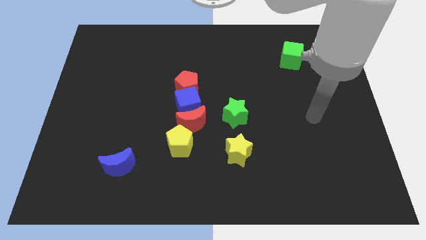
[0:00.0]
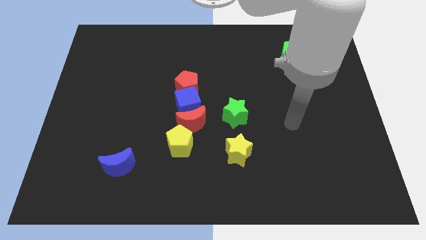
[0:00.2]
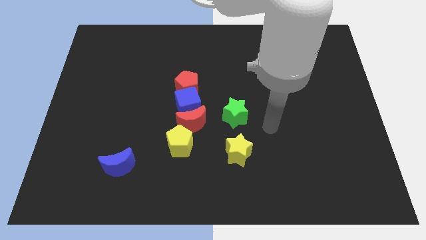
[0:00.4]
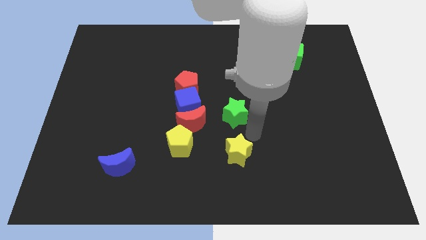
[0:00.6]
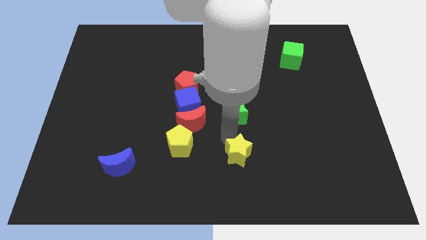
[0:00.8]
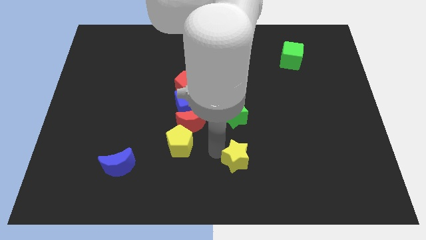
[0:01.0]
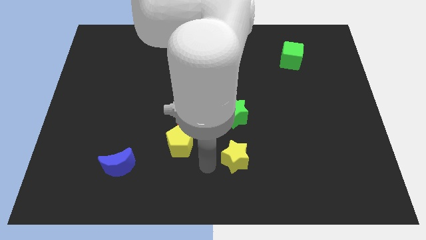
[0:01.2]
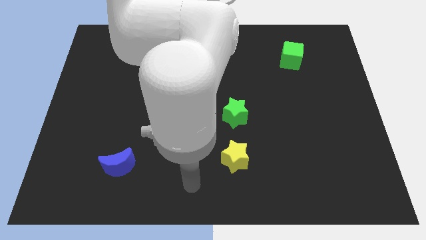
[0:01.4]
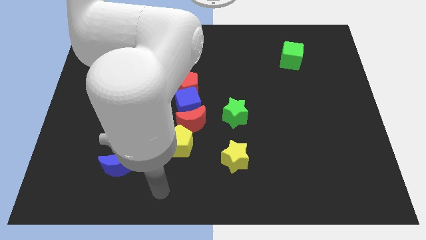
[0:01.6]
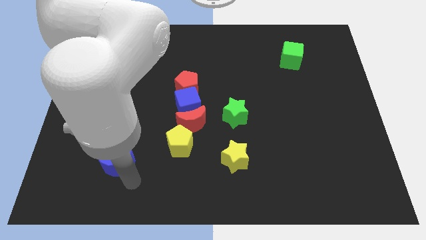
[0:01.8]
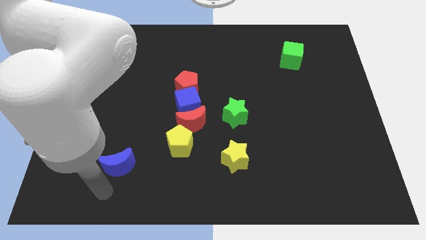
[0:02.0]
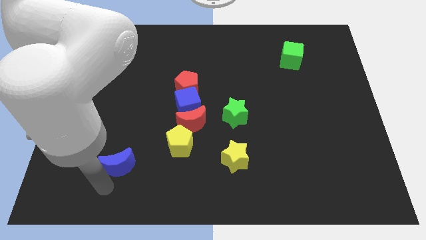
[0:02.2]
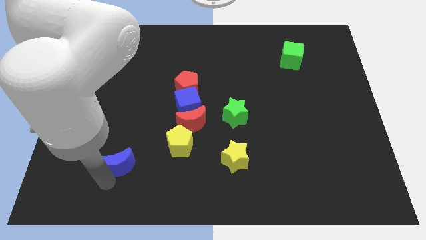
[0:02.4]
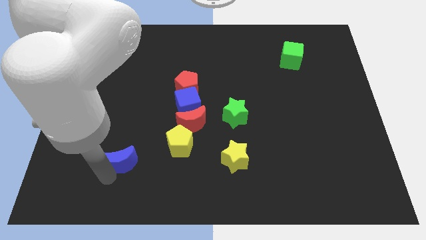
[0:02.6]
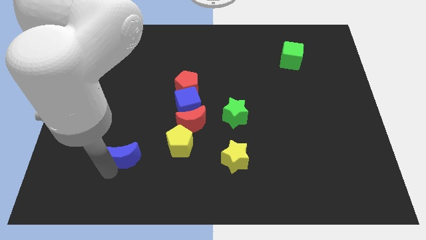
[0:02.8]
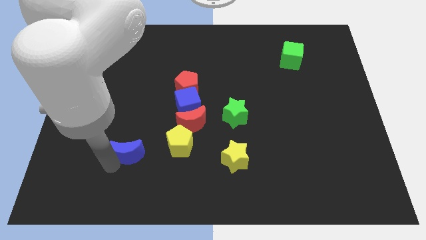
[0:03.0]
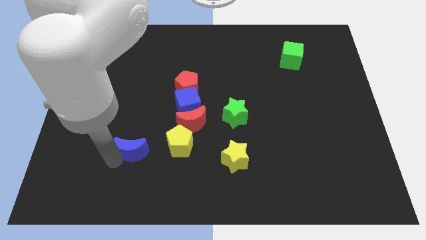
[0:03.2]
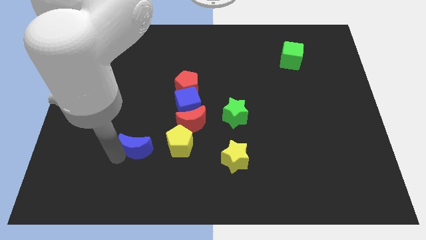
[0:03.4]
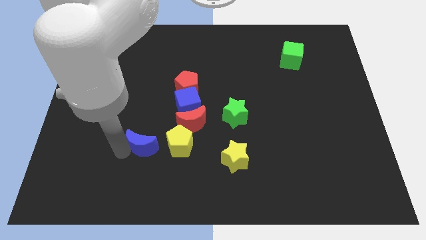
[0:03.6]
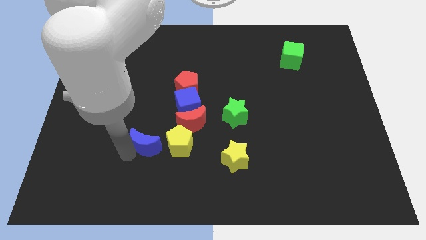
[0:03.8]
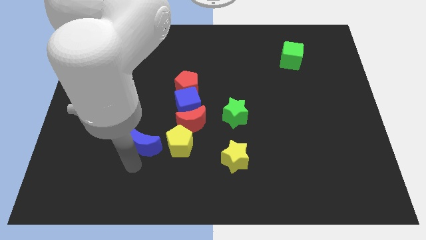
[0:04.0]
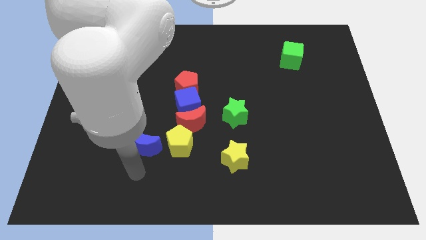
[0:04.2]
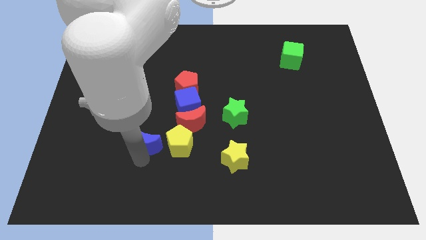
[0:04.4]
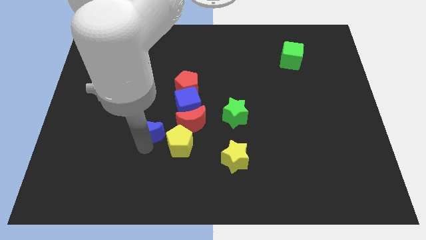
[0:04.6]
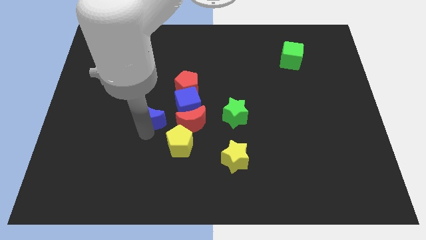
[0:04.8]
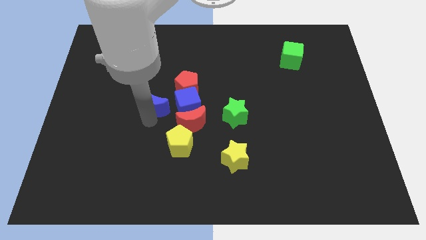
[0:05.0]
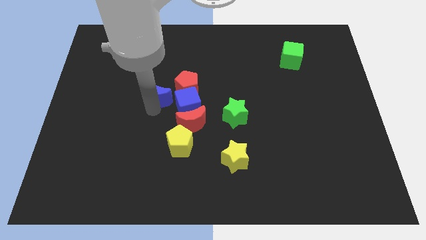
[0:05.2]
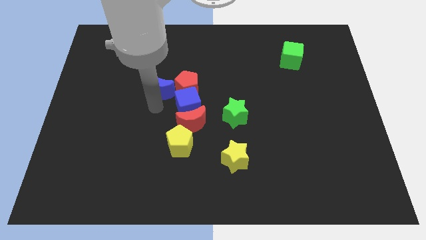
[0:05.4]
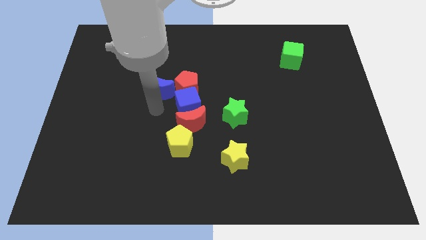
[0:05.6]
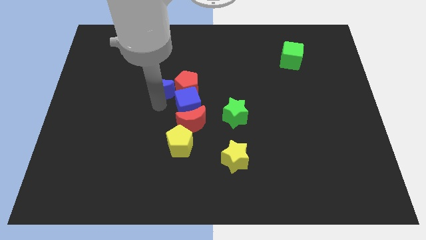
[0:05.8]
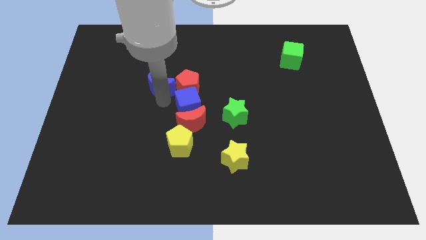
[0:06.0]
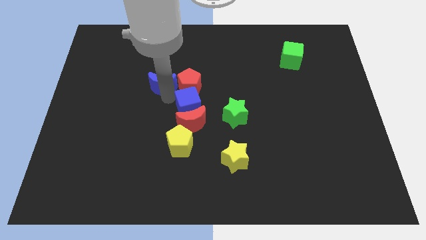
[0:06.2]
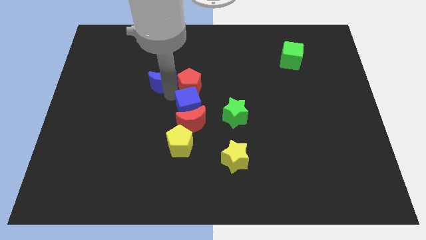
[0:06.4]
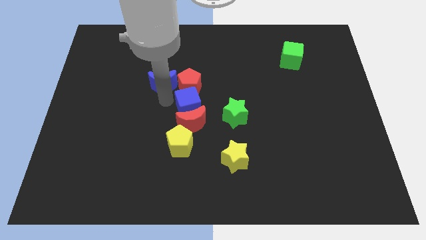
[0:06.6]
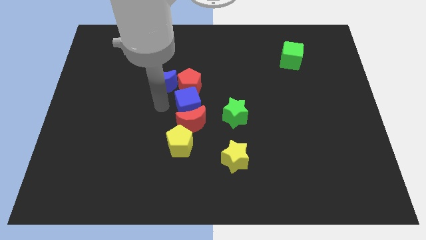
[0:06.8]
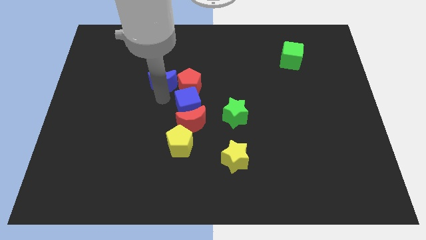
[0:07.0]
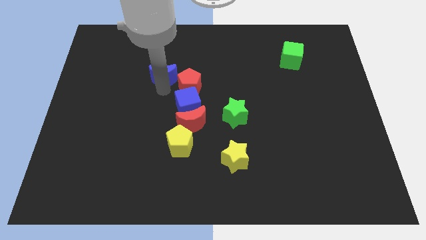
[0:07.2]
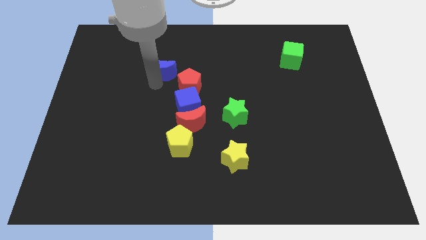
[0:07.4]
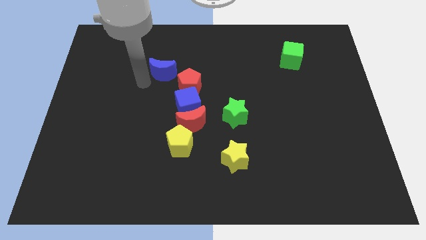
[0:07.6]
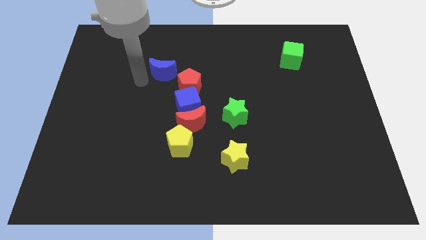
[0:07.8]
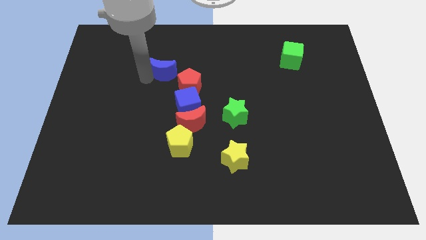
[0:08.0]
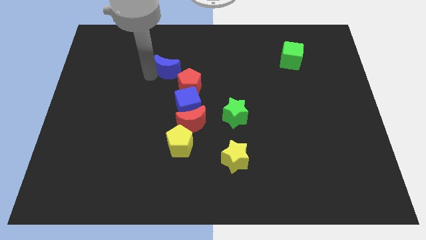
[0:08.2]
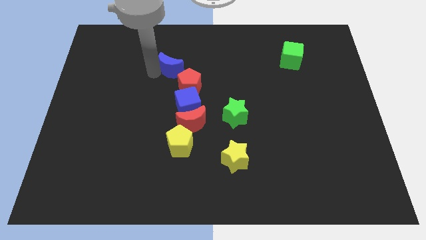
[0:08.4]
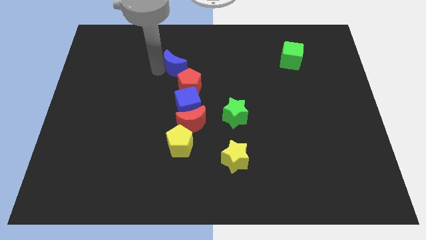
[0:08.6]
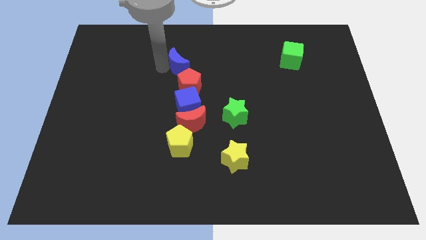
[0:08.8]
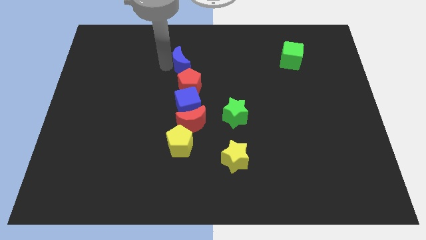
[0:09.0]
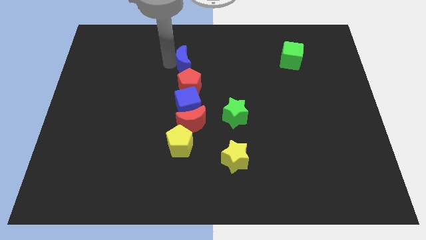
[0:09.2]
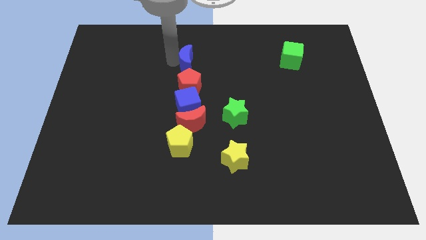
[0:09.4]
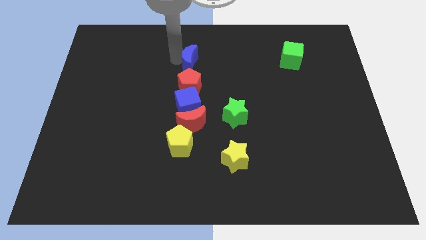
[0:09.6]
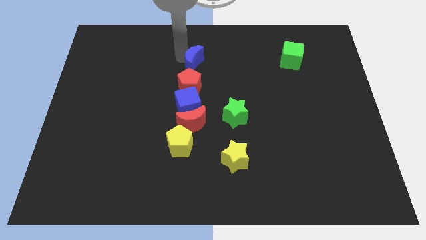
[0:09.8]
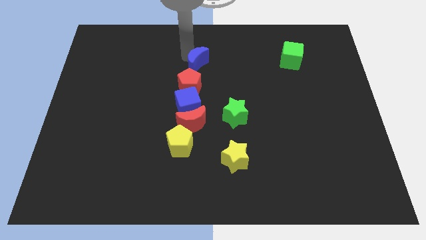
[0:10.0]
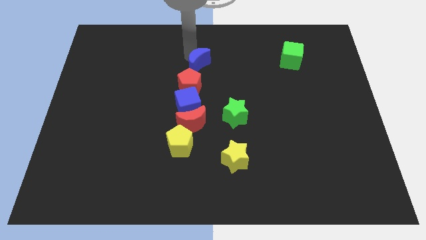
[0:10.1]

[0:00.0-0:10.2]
slide the blue moon to the center of the board

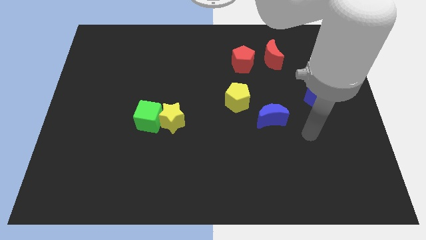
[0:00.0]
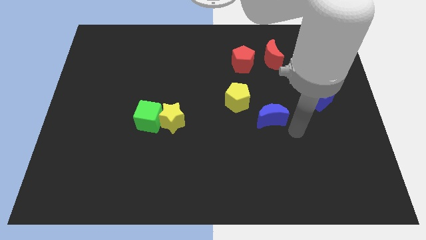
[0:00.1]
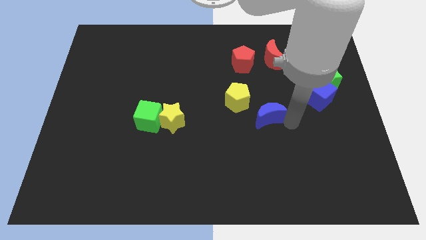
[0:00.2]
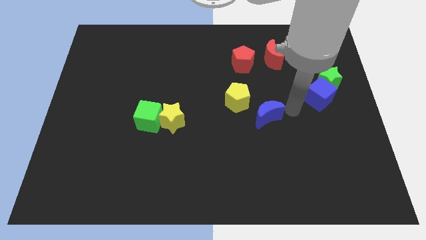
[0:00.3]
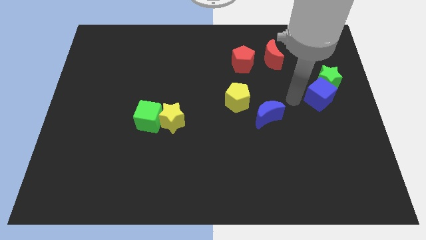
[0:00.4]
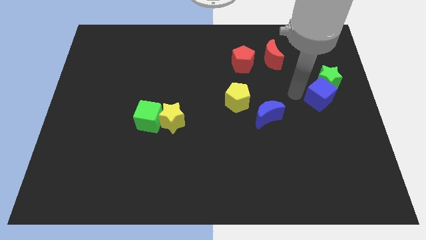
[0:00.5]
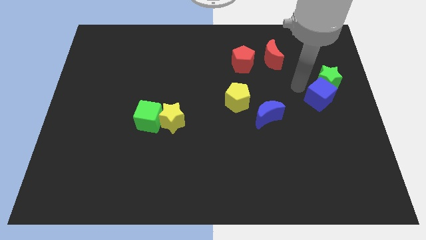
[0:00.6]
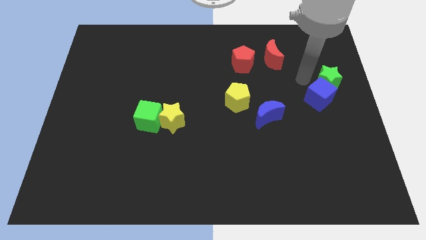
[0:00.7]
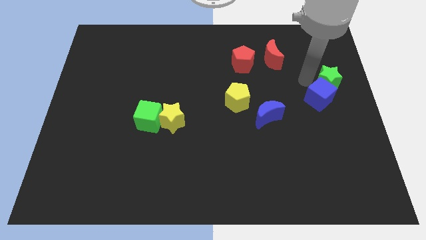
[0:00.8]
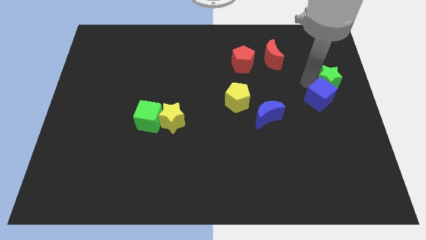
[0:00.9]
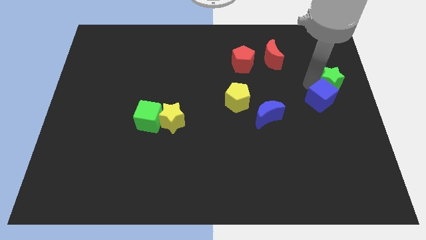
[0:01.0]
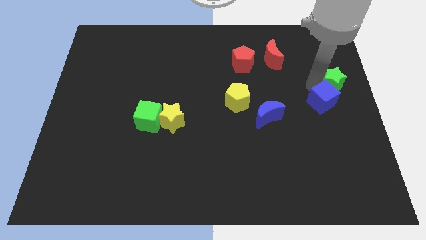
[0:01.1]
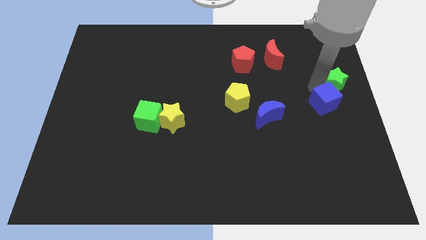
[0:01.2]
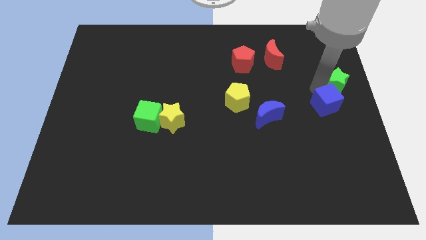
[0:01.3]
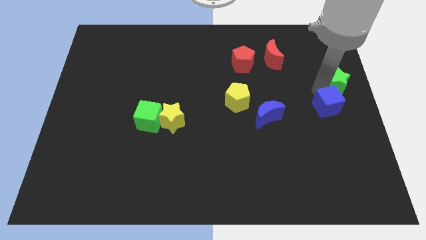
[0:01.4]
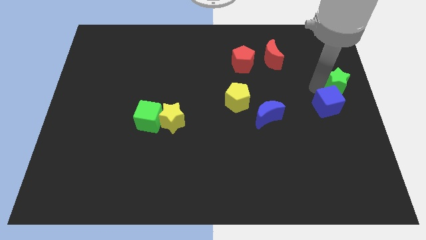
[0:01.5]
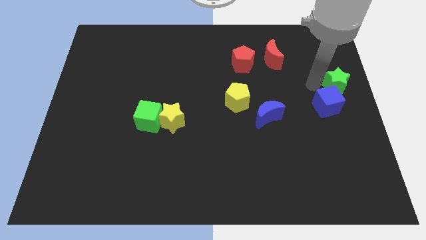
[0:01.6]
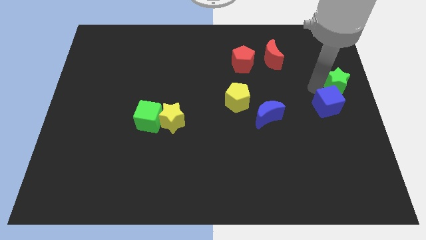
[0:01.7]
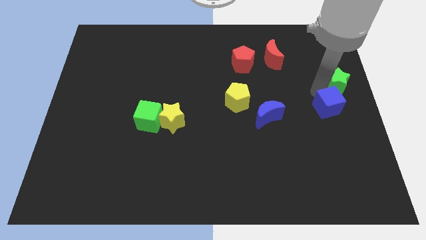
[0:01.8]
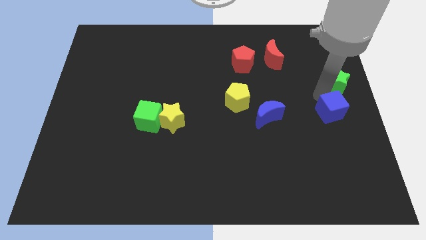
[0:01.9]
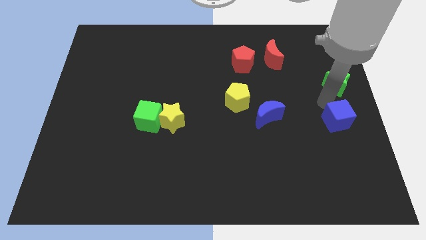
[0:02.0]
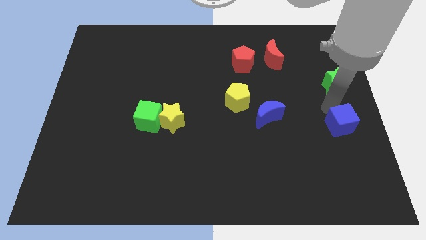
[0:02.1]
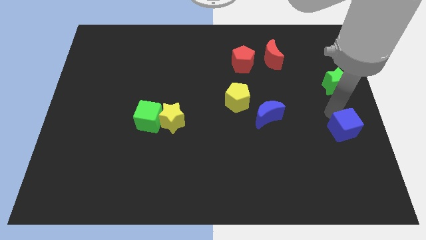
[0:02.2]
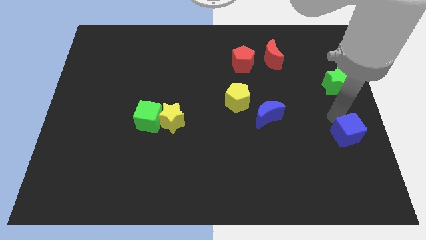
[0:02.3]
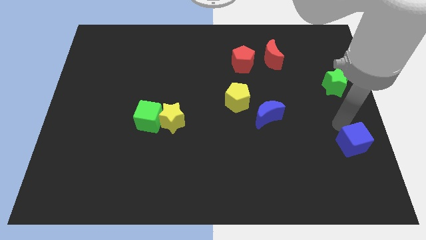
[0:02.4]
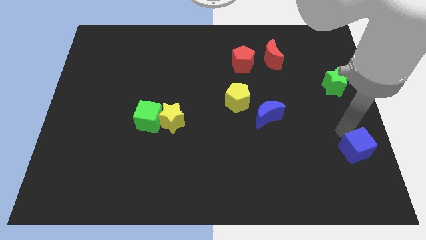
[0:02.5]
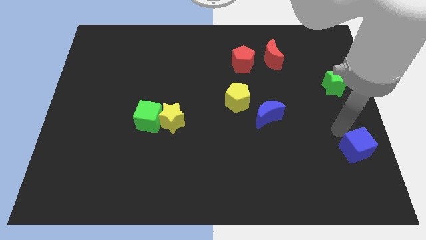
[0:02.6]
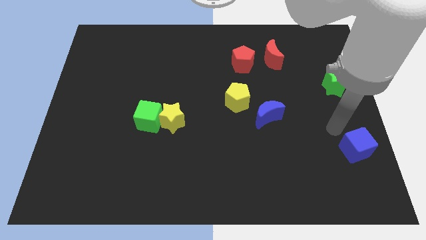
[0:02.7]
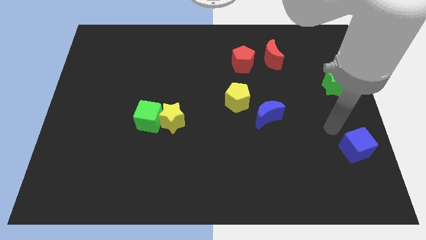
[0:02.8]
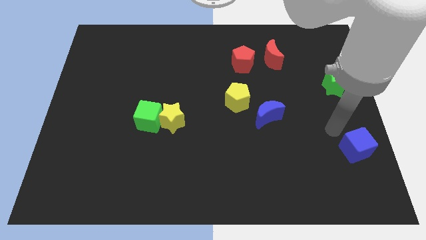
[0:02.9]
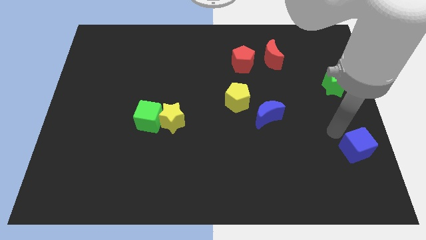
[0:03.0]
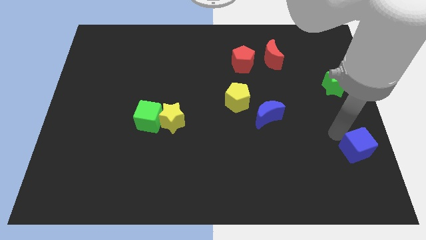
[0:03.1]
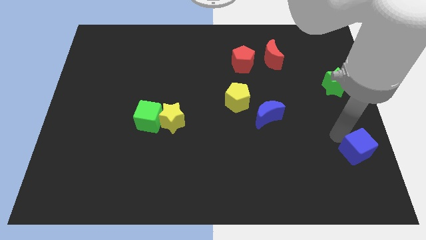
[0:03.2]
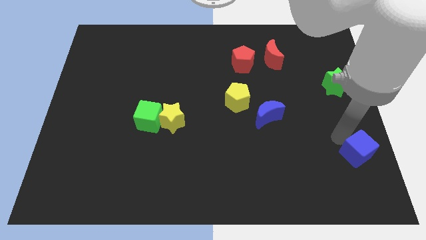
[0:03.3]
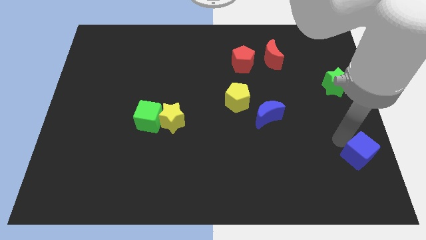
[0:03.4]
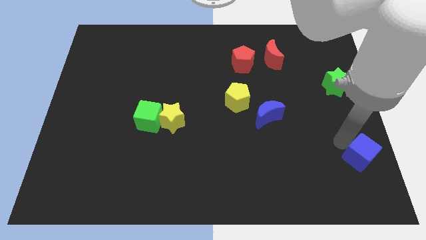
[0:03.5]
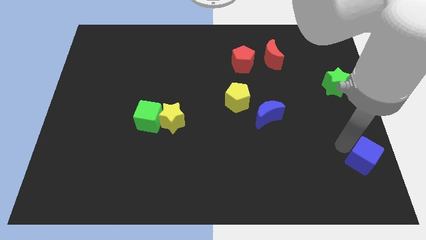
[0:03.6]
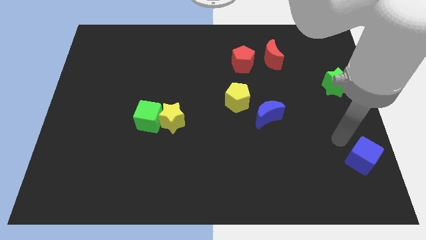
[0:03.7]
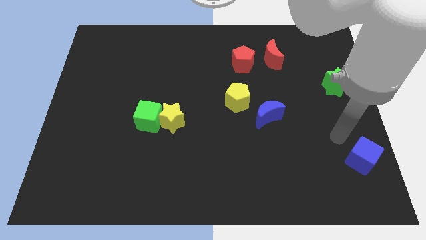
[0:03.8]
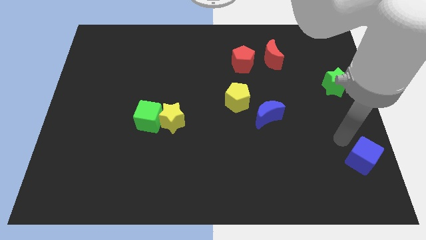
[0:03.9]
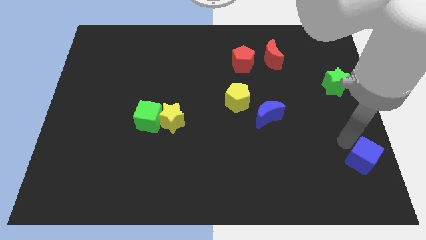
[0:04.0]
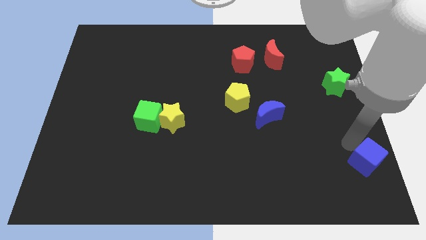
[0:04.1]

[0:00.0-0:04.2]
slide the blue cube to the bottom right
